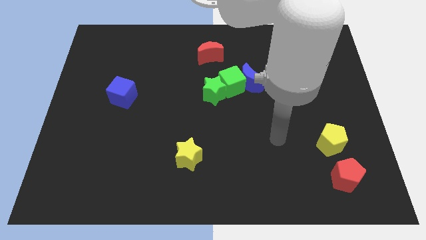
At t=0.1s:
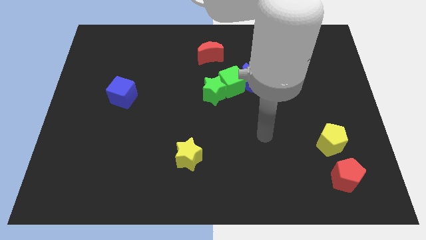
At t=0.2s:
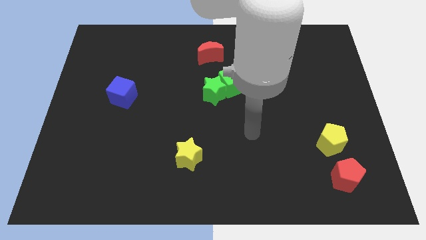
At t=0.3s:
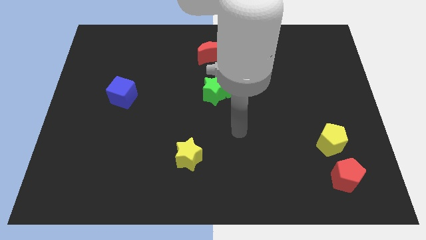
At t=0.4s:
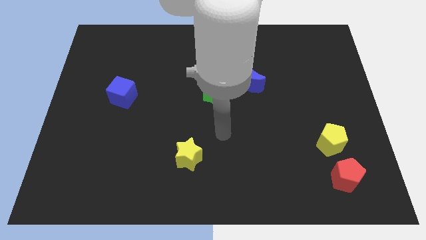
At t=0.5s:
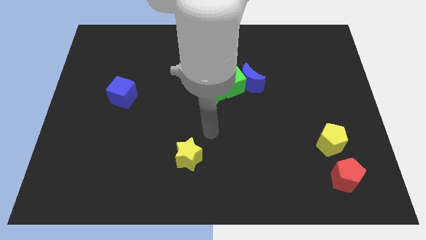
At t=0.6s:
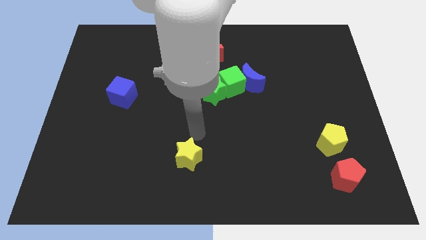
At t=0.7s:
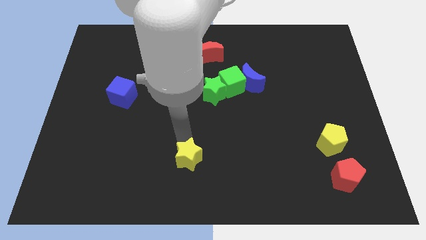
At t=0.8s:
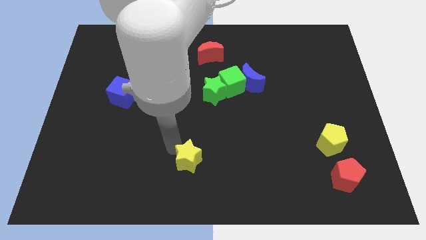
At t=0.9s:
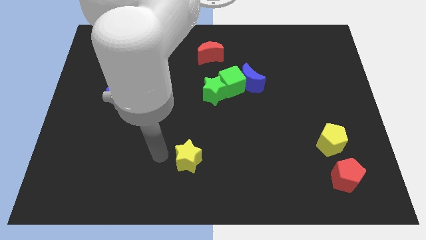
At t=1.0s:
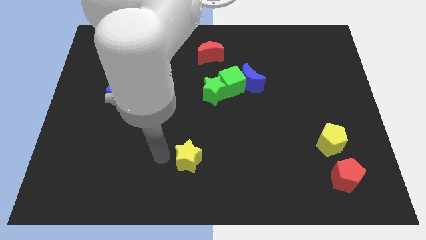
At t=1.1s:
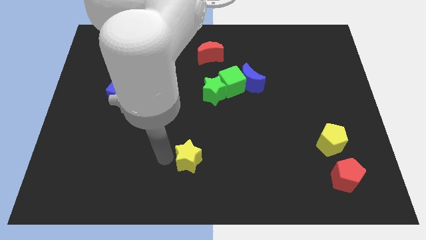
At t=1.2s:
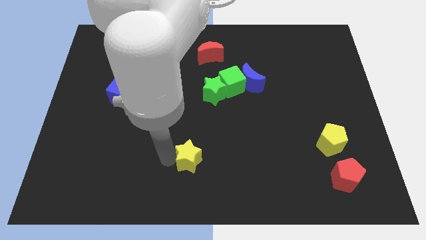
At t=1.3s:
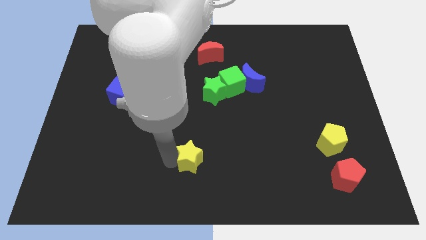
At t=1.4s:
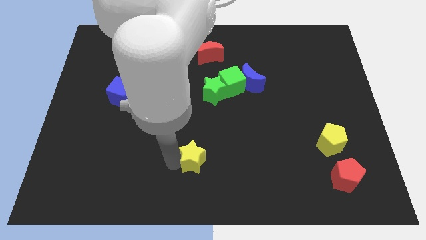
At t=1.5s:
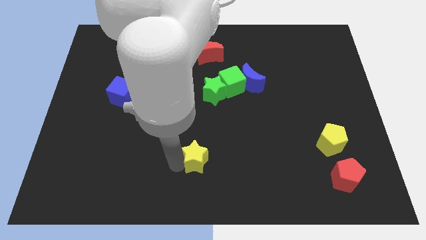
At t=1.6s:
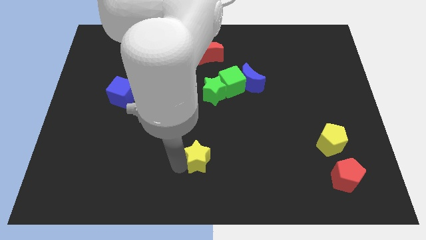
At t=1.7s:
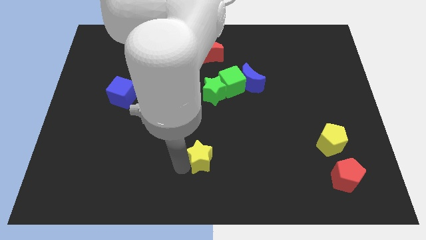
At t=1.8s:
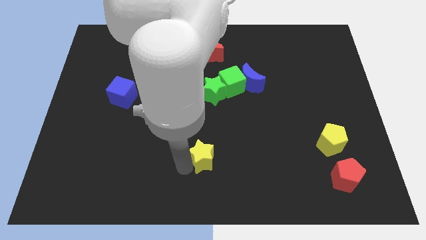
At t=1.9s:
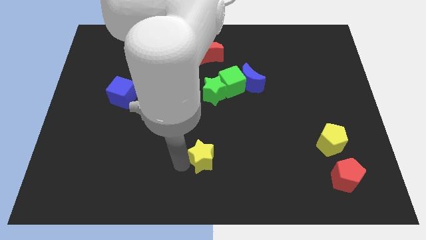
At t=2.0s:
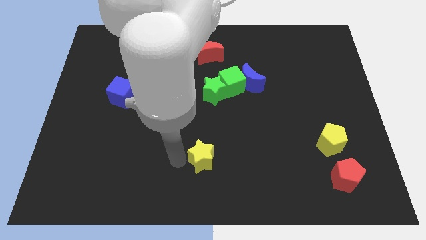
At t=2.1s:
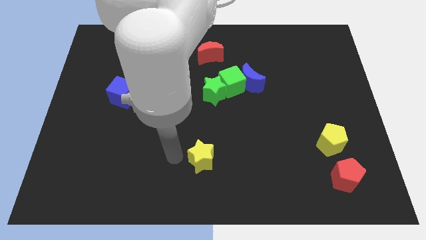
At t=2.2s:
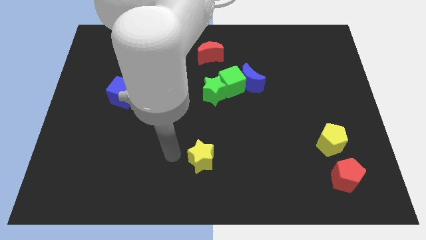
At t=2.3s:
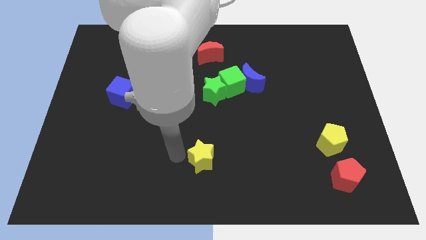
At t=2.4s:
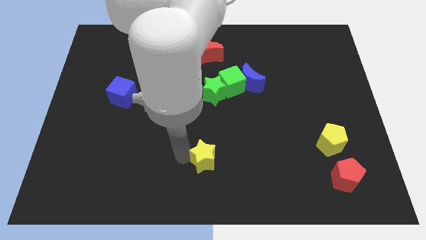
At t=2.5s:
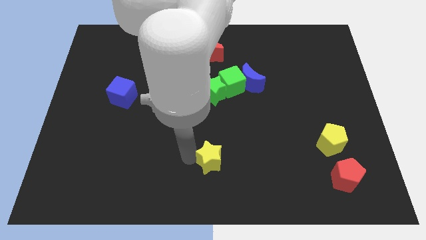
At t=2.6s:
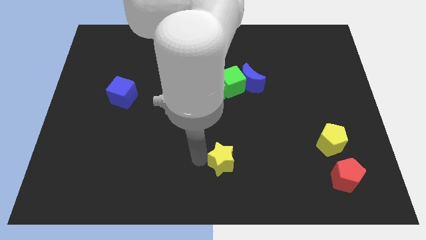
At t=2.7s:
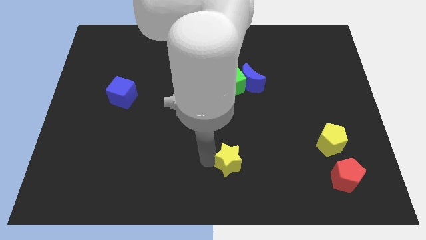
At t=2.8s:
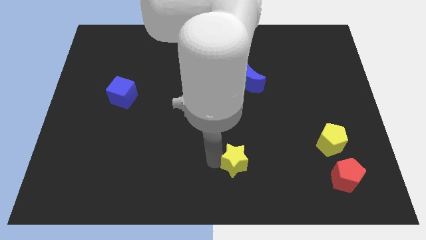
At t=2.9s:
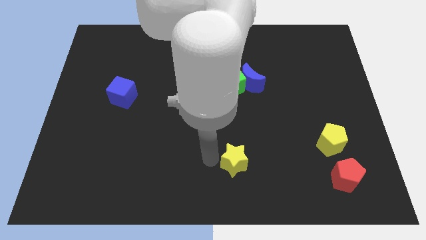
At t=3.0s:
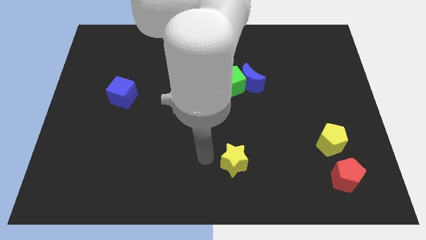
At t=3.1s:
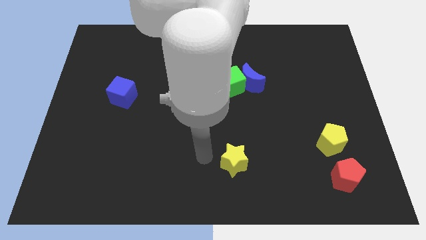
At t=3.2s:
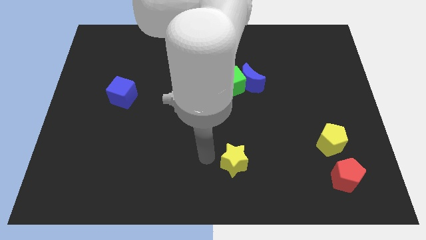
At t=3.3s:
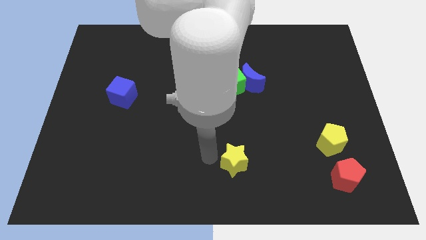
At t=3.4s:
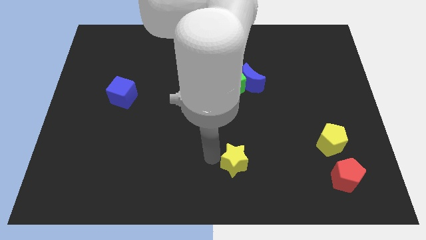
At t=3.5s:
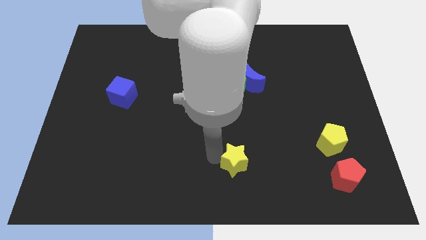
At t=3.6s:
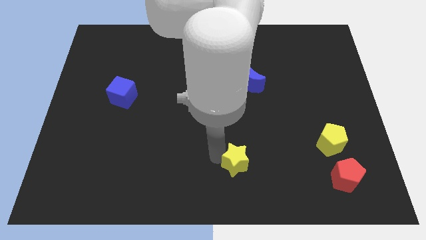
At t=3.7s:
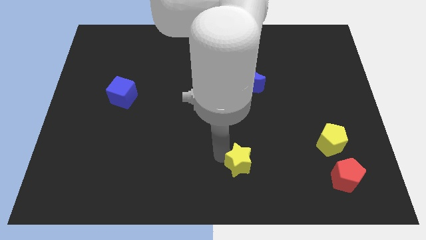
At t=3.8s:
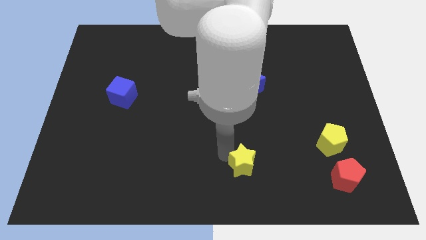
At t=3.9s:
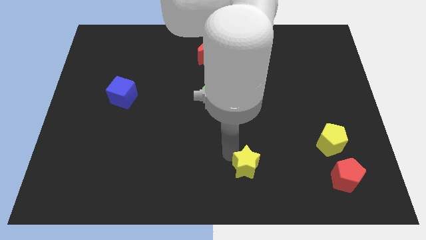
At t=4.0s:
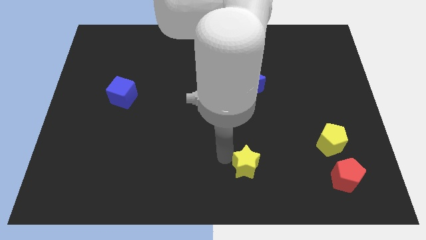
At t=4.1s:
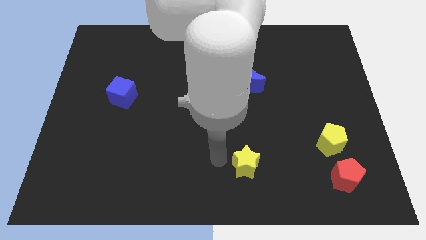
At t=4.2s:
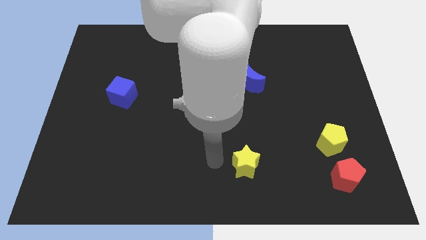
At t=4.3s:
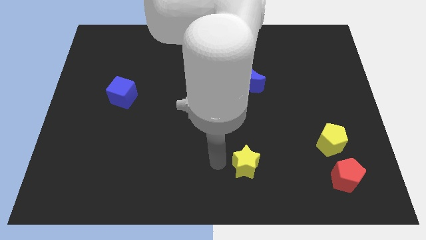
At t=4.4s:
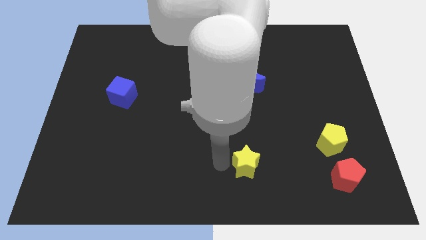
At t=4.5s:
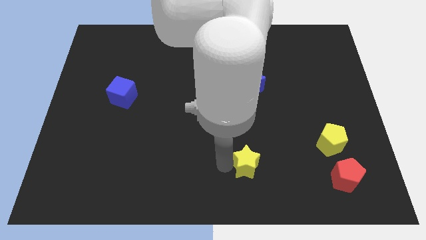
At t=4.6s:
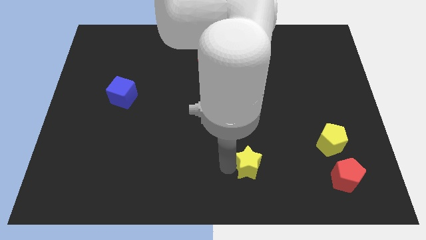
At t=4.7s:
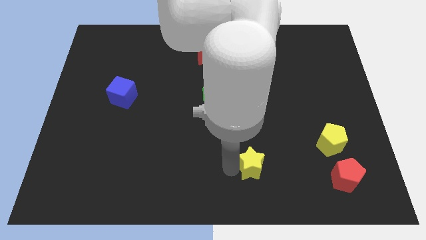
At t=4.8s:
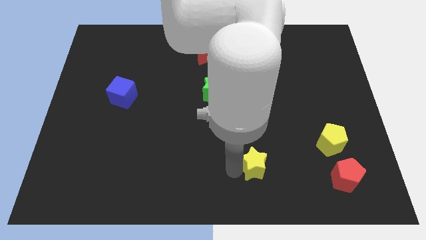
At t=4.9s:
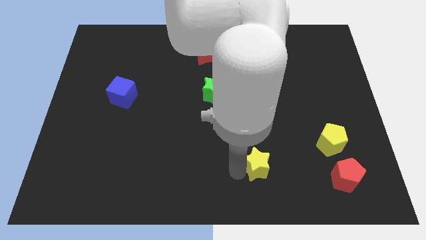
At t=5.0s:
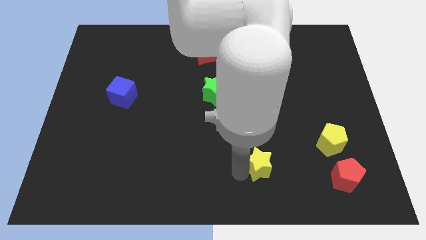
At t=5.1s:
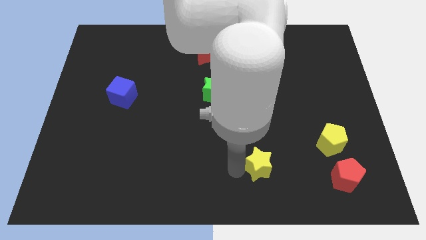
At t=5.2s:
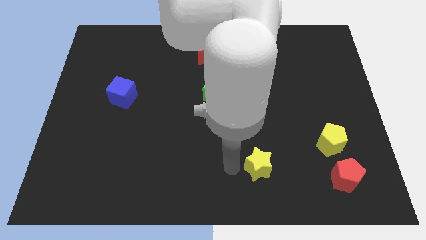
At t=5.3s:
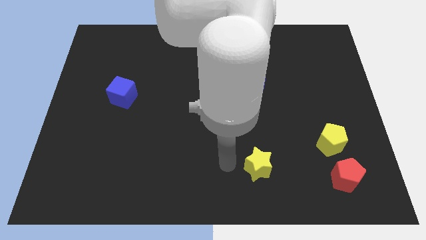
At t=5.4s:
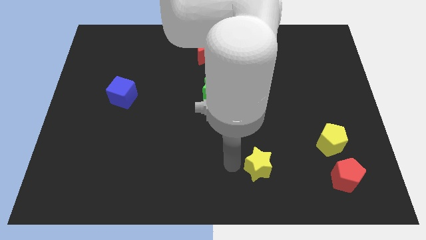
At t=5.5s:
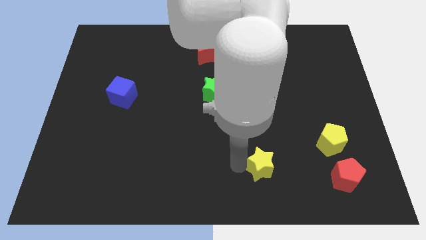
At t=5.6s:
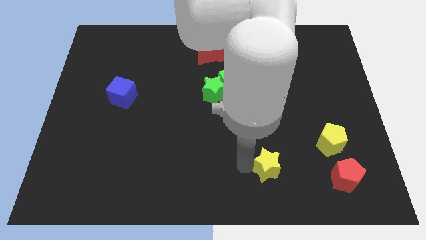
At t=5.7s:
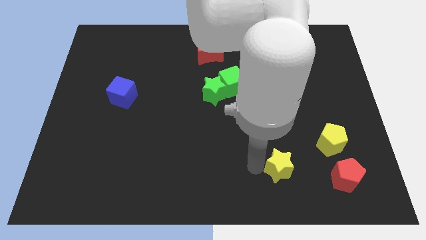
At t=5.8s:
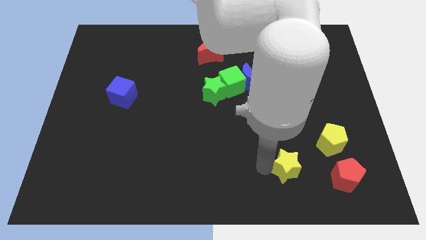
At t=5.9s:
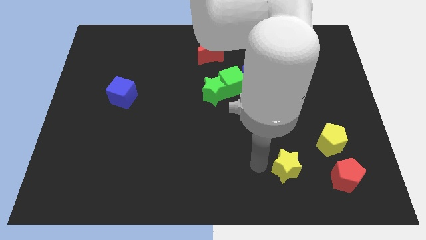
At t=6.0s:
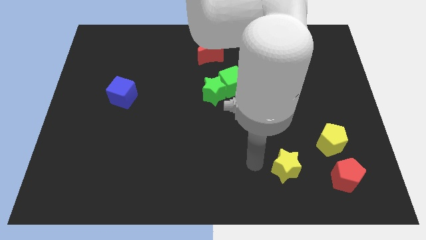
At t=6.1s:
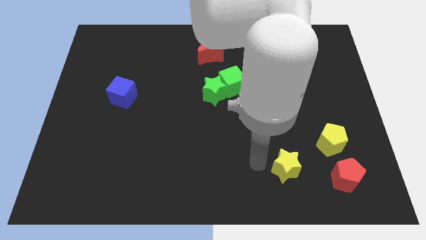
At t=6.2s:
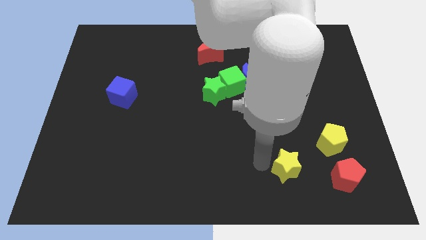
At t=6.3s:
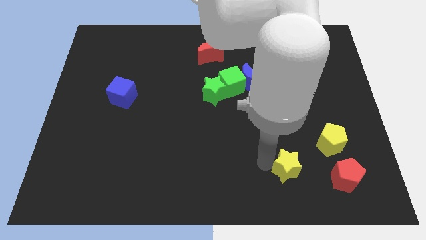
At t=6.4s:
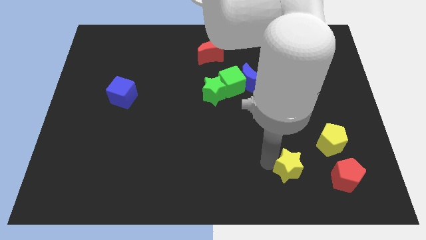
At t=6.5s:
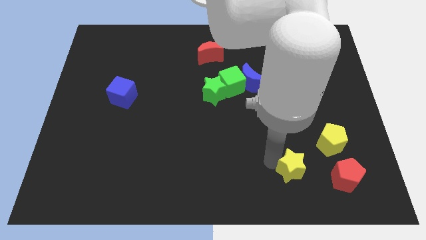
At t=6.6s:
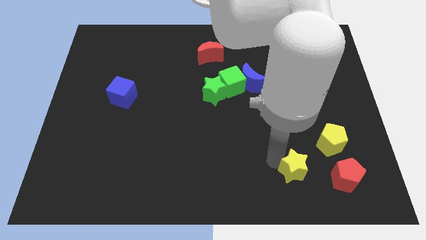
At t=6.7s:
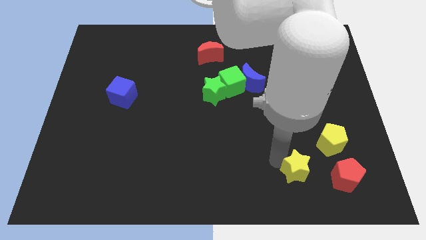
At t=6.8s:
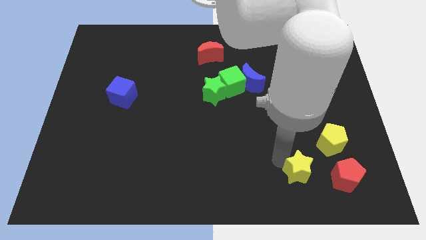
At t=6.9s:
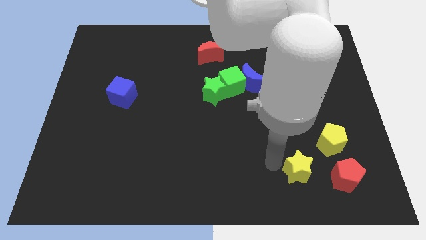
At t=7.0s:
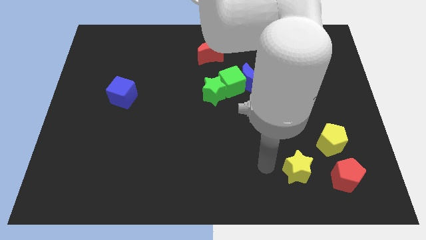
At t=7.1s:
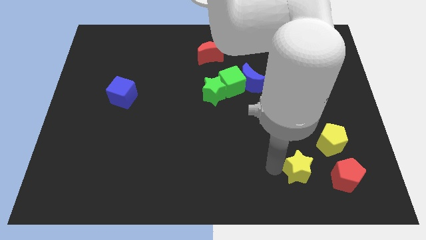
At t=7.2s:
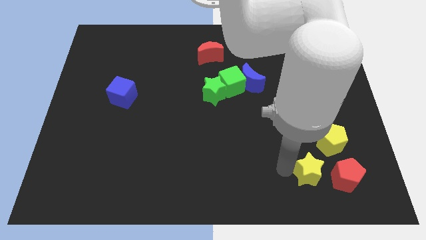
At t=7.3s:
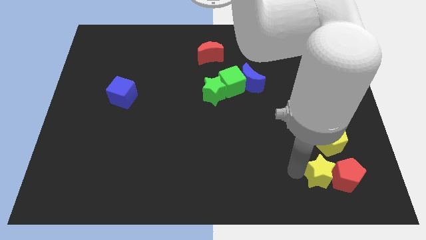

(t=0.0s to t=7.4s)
put the yellow star towards the red pentagon

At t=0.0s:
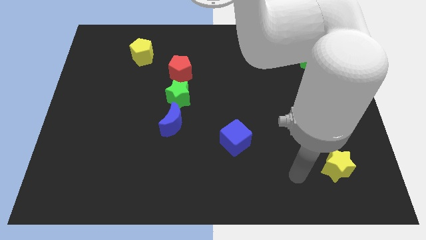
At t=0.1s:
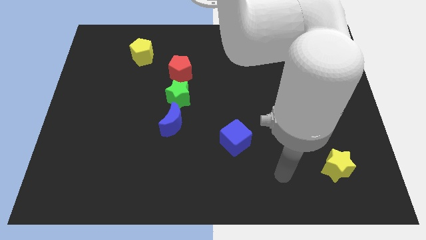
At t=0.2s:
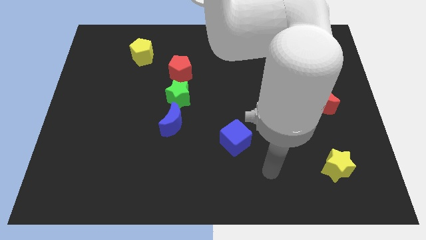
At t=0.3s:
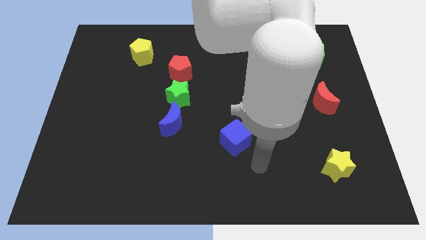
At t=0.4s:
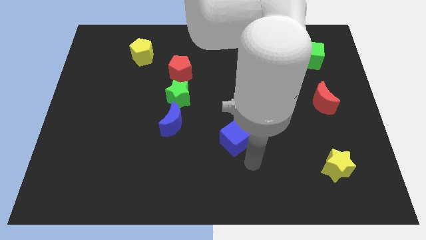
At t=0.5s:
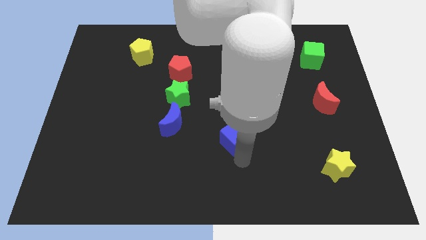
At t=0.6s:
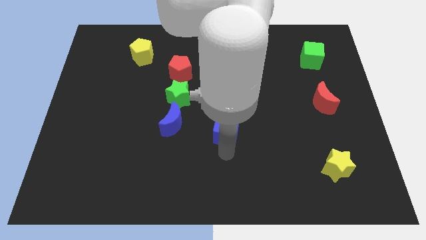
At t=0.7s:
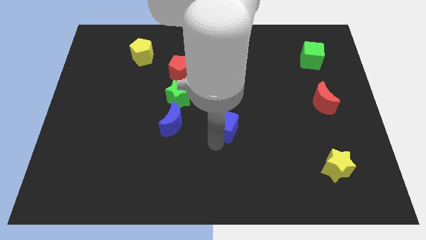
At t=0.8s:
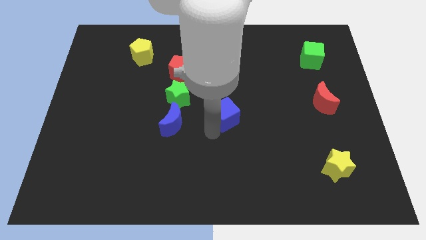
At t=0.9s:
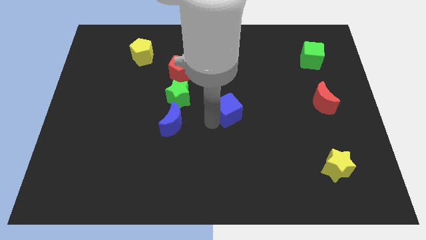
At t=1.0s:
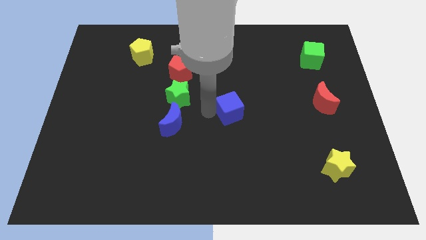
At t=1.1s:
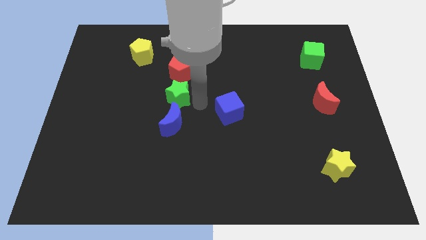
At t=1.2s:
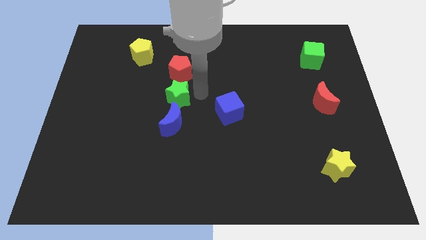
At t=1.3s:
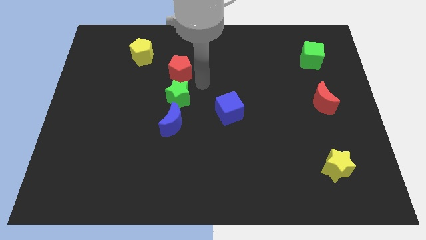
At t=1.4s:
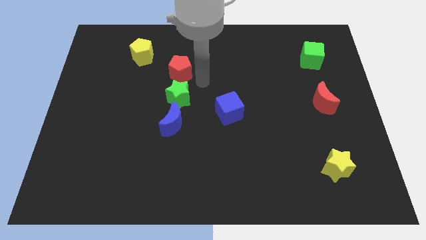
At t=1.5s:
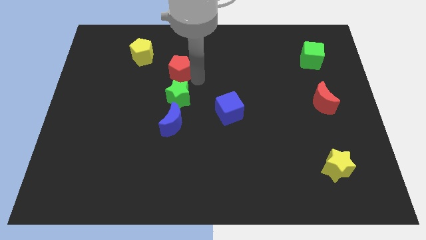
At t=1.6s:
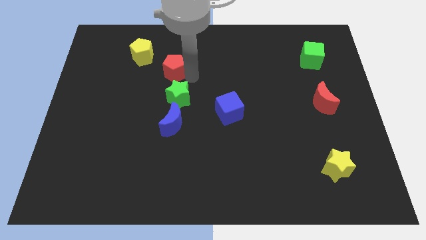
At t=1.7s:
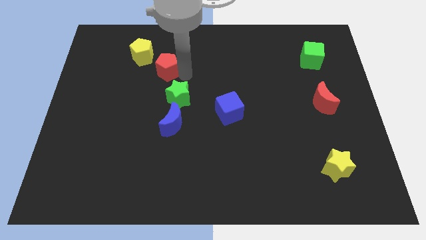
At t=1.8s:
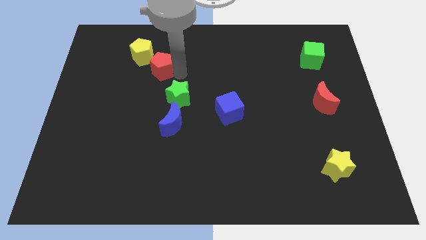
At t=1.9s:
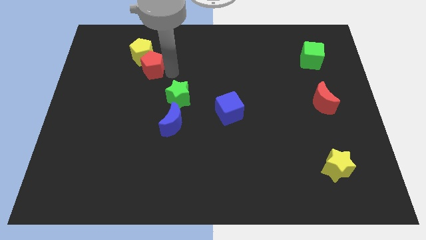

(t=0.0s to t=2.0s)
move the red pentagon close to the yellow pentagon
